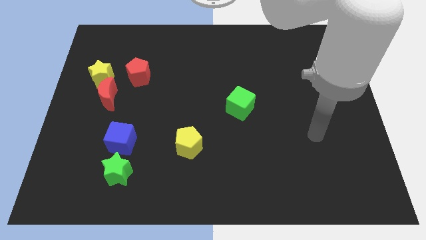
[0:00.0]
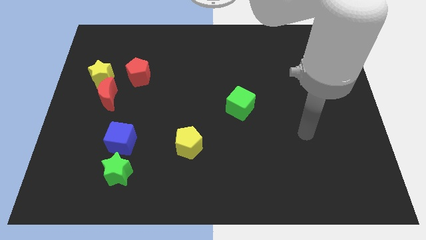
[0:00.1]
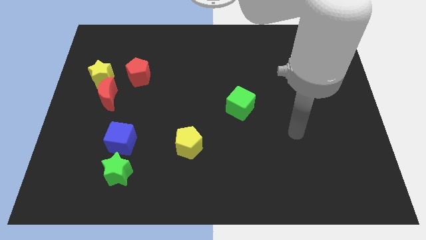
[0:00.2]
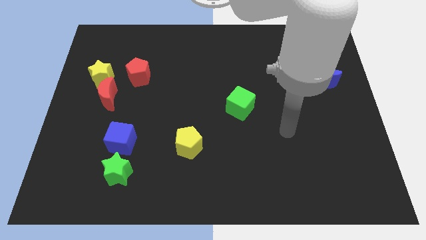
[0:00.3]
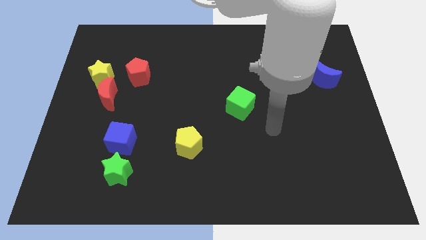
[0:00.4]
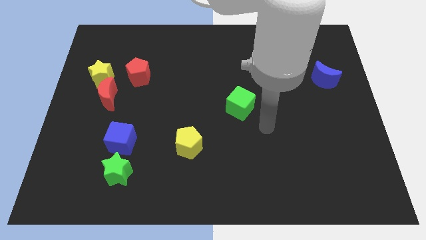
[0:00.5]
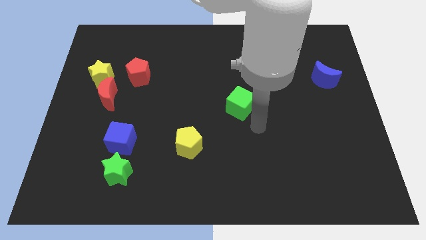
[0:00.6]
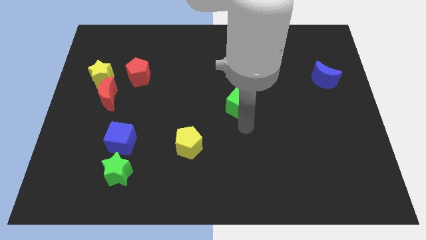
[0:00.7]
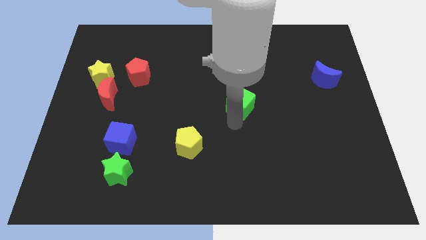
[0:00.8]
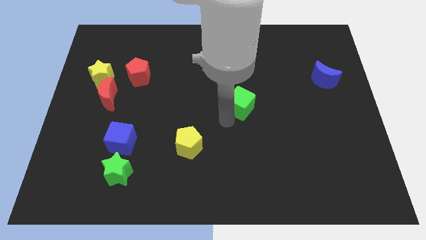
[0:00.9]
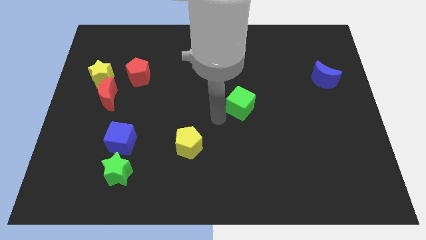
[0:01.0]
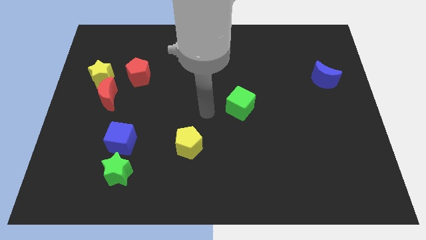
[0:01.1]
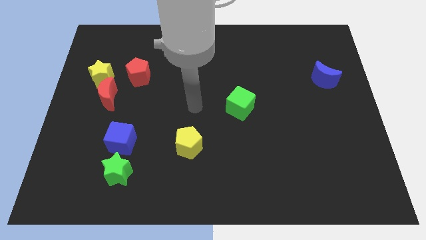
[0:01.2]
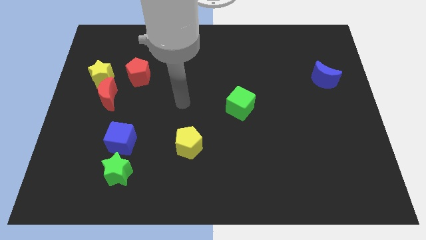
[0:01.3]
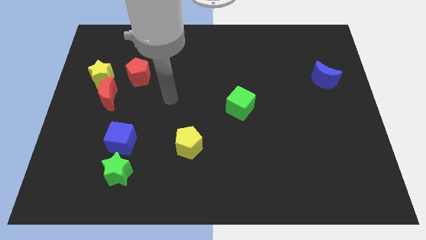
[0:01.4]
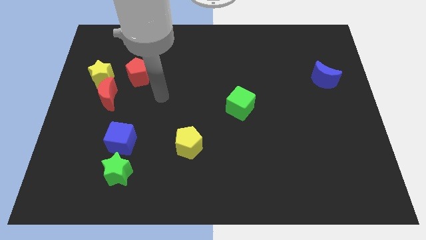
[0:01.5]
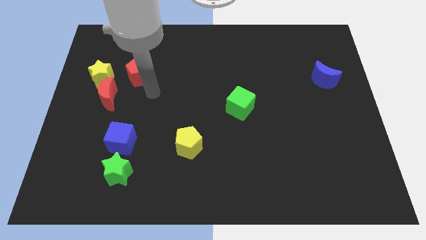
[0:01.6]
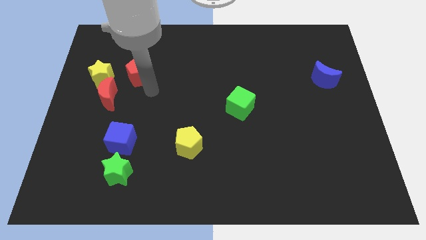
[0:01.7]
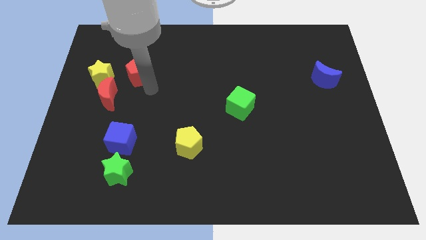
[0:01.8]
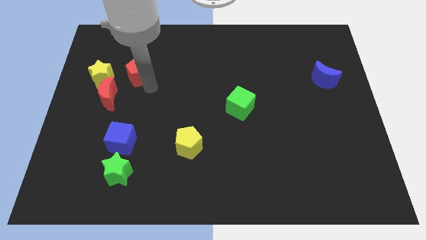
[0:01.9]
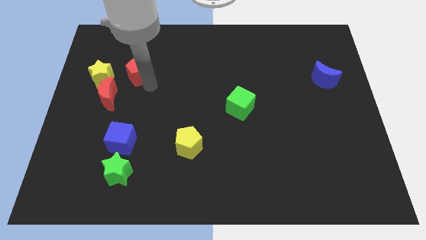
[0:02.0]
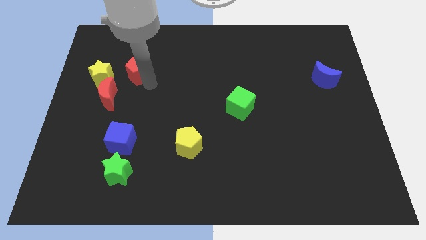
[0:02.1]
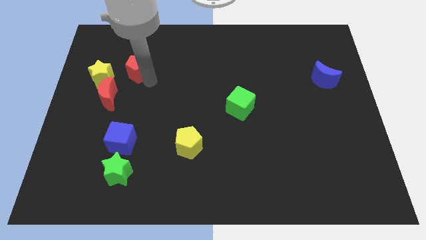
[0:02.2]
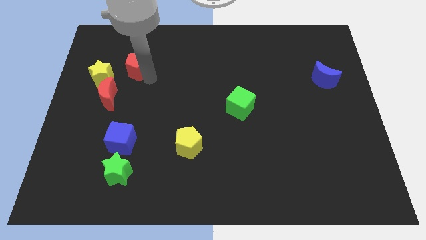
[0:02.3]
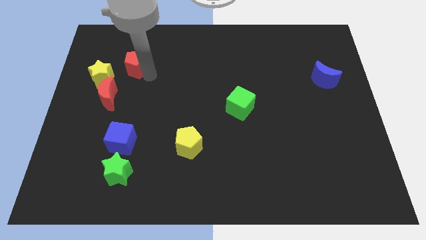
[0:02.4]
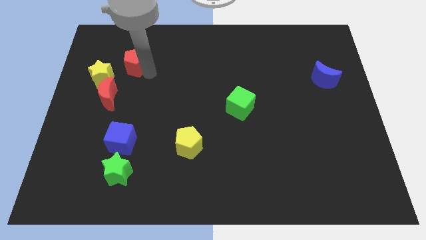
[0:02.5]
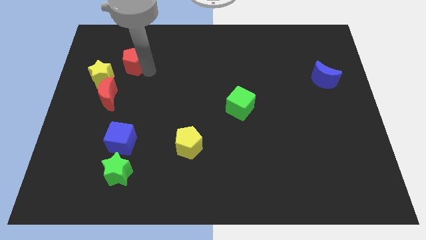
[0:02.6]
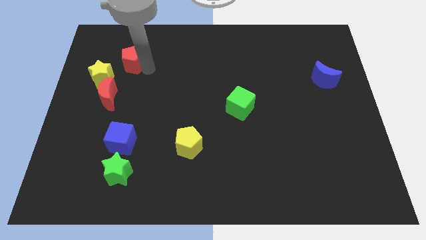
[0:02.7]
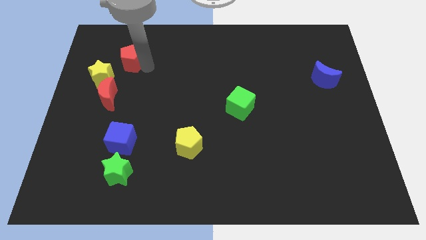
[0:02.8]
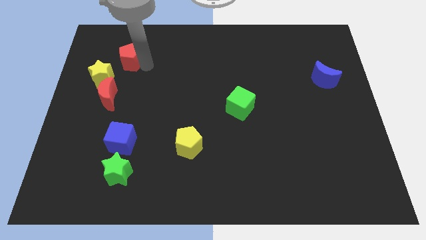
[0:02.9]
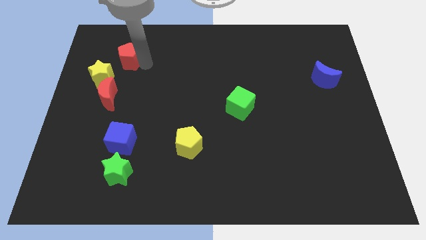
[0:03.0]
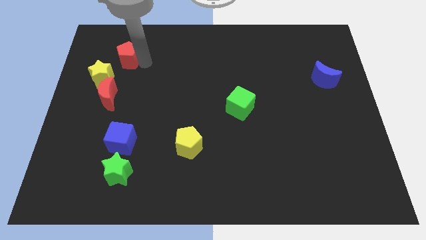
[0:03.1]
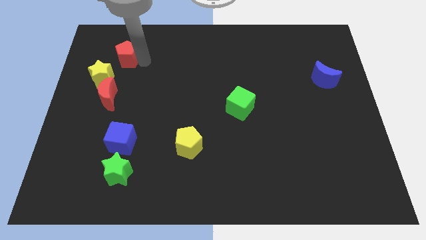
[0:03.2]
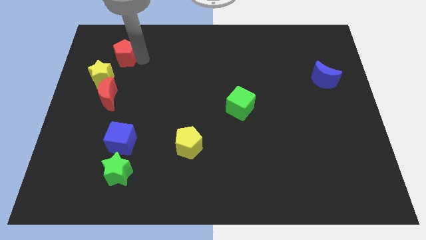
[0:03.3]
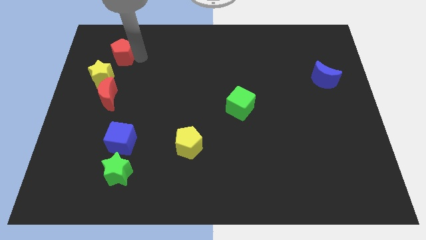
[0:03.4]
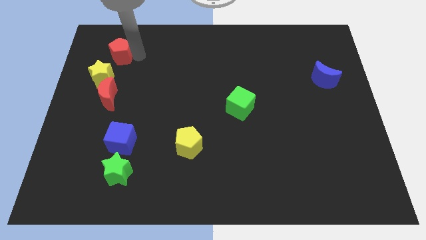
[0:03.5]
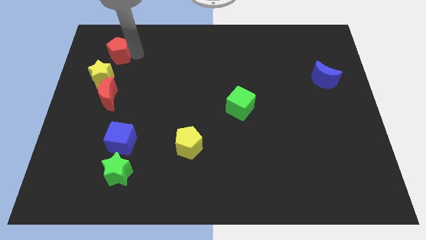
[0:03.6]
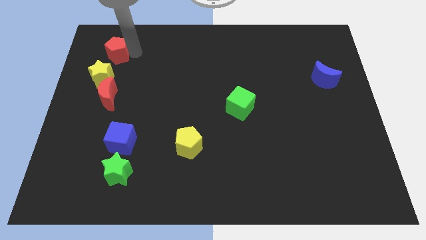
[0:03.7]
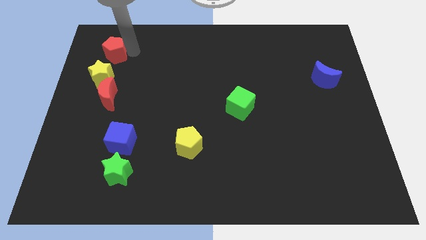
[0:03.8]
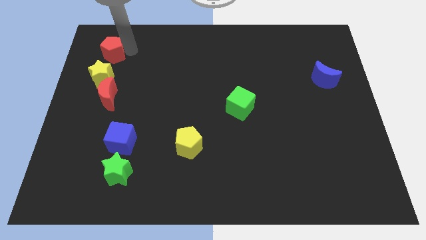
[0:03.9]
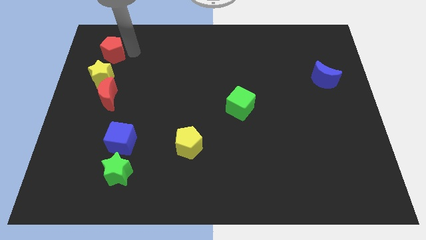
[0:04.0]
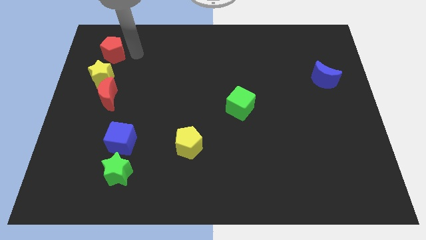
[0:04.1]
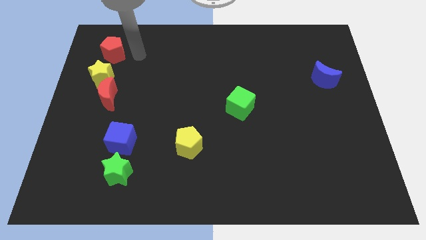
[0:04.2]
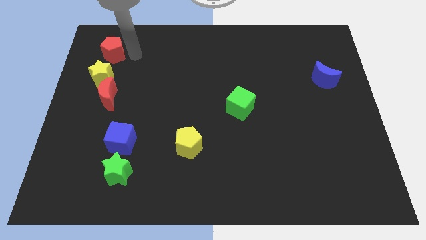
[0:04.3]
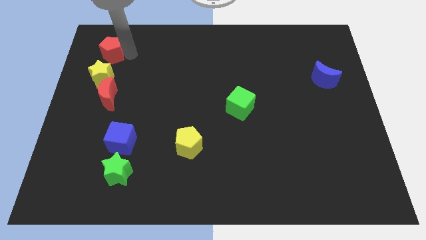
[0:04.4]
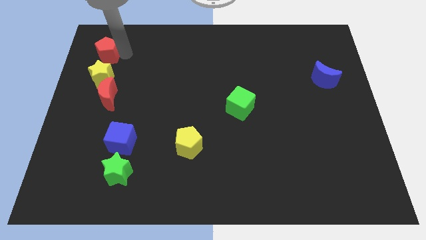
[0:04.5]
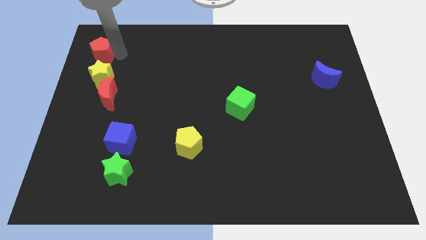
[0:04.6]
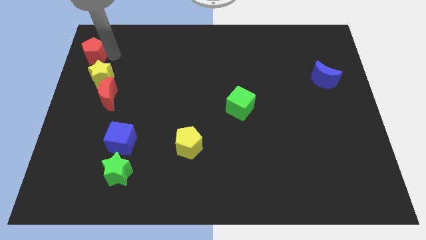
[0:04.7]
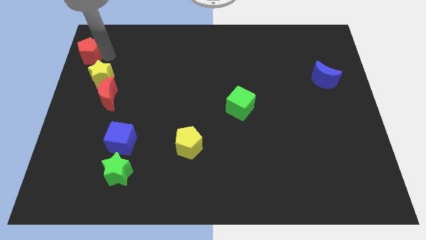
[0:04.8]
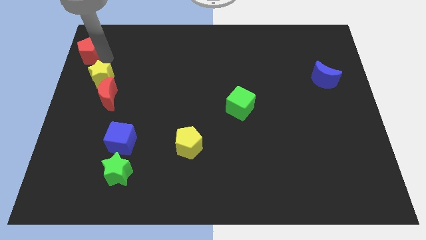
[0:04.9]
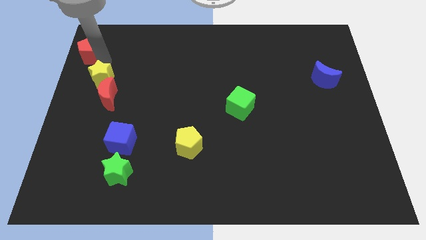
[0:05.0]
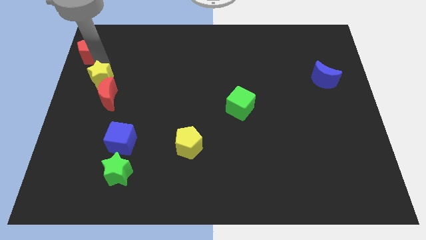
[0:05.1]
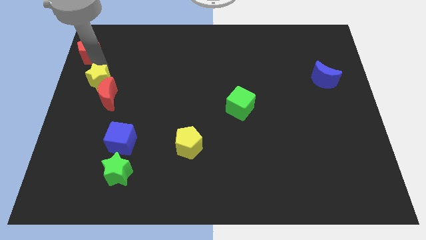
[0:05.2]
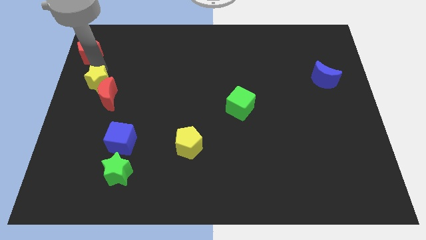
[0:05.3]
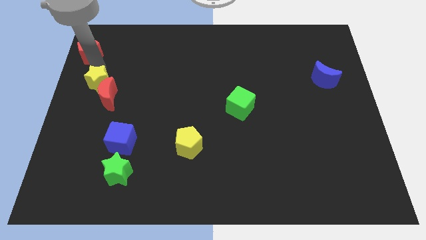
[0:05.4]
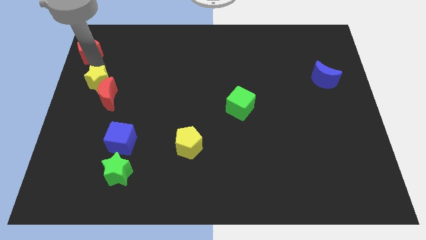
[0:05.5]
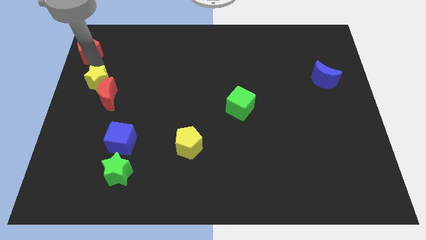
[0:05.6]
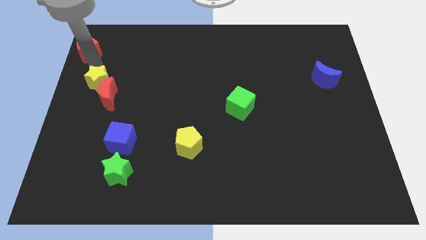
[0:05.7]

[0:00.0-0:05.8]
move the red pentagon to the top left of the board

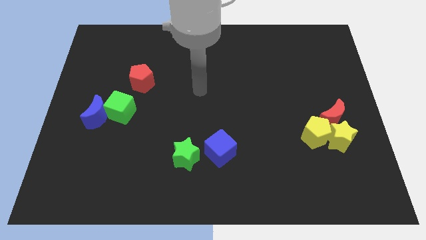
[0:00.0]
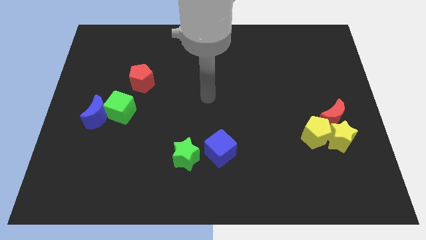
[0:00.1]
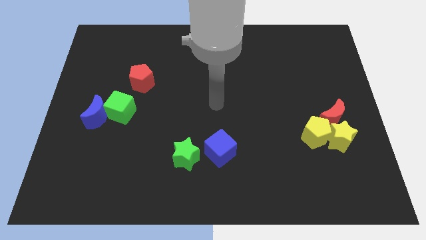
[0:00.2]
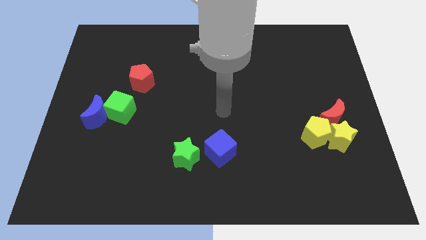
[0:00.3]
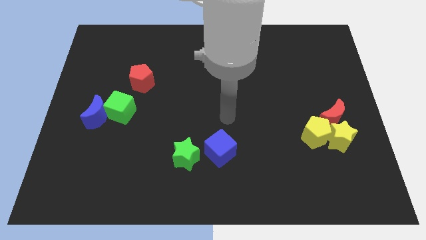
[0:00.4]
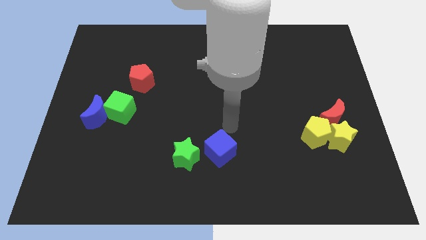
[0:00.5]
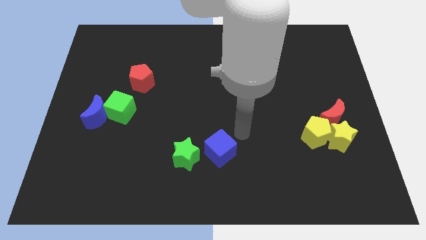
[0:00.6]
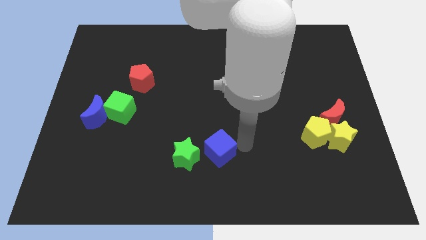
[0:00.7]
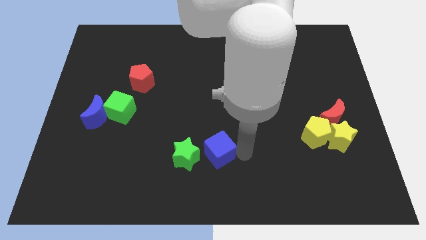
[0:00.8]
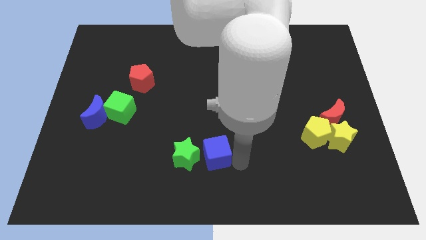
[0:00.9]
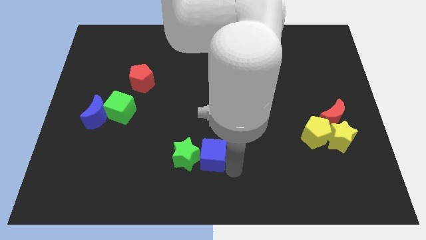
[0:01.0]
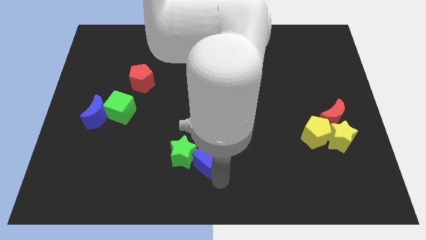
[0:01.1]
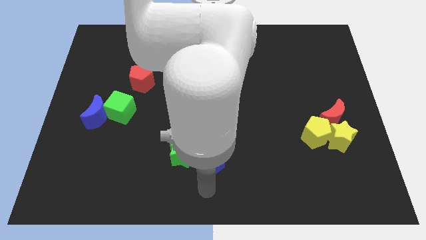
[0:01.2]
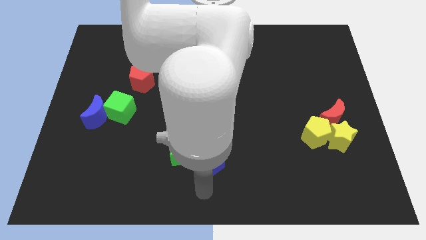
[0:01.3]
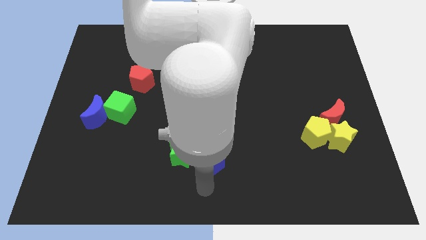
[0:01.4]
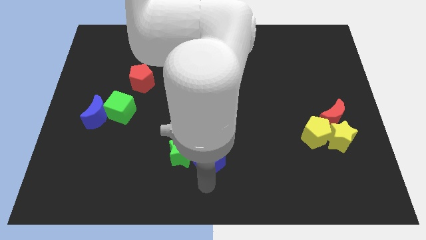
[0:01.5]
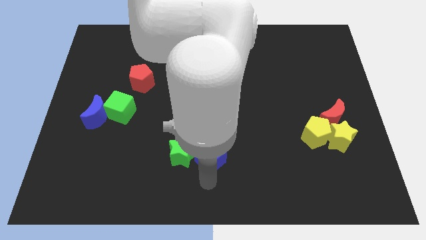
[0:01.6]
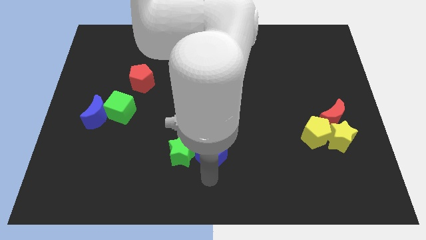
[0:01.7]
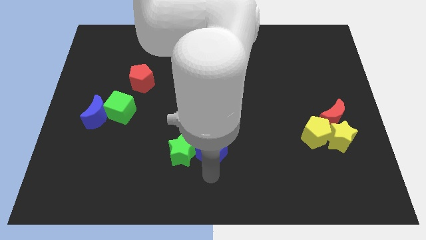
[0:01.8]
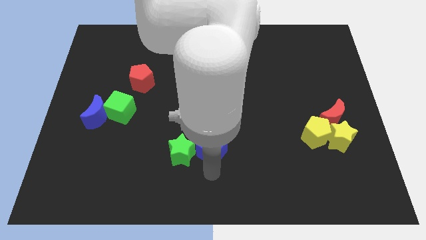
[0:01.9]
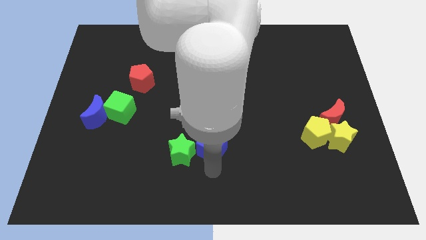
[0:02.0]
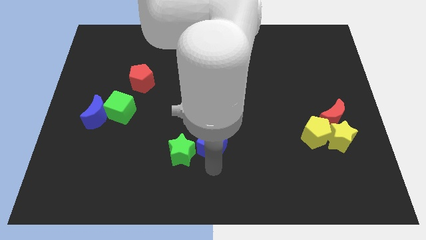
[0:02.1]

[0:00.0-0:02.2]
move the blue cube to the middle
